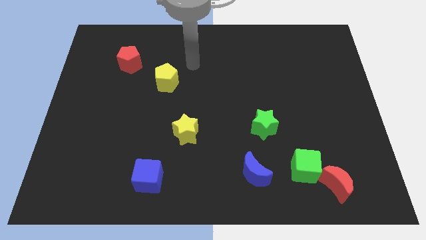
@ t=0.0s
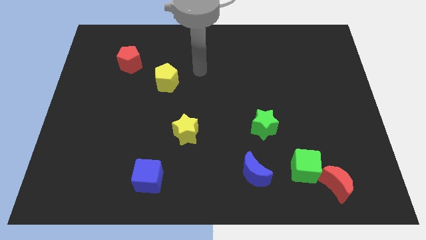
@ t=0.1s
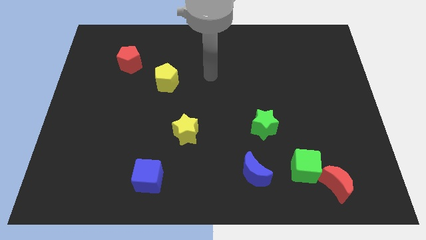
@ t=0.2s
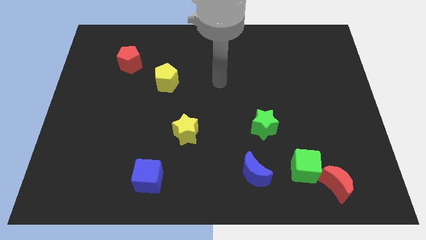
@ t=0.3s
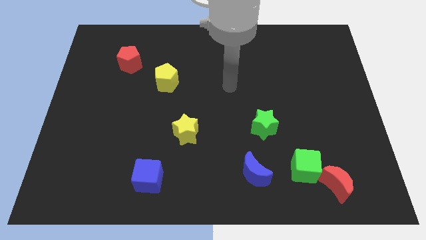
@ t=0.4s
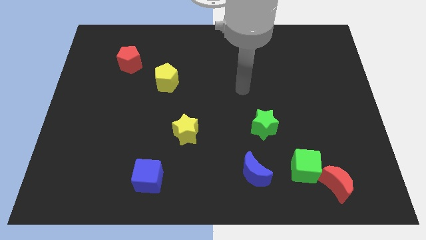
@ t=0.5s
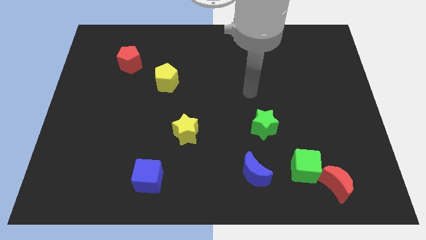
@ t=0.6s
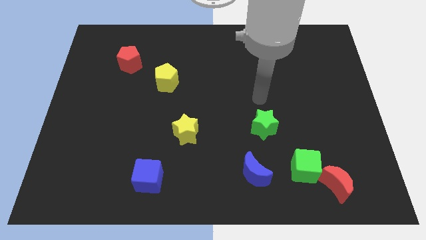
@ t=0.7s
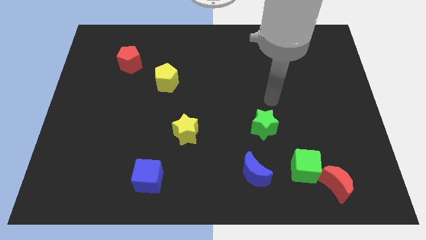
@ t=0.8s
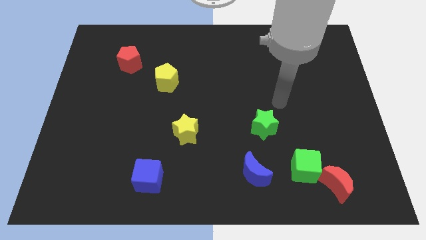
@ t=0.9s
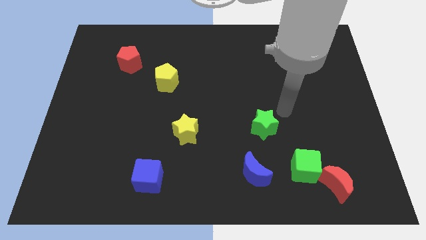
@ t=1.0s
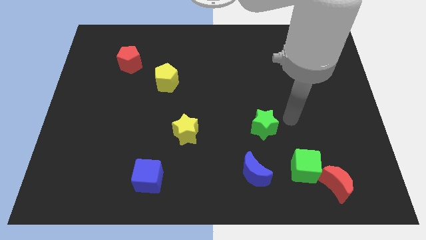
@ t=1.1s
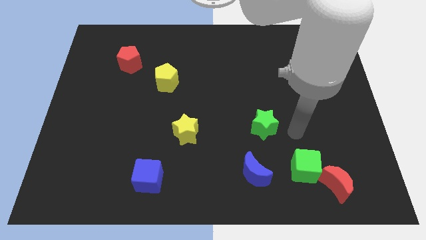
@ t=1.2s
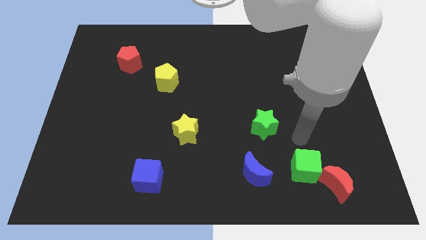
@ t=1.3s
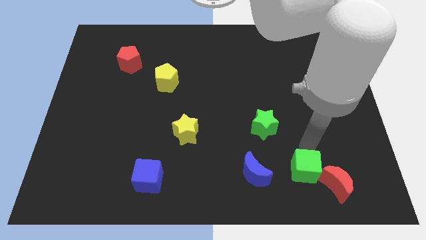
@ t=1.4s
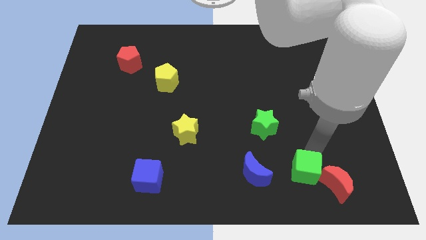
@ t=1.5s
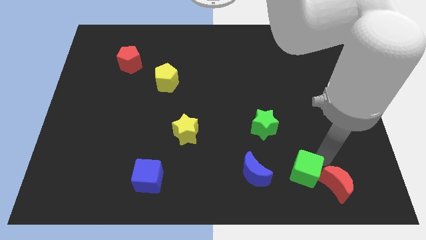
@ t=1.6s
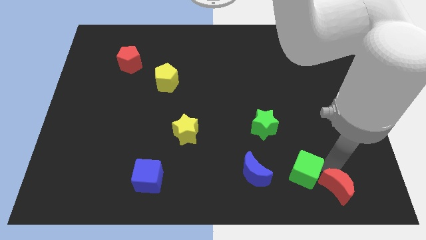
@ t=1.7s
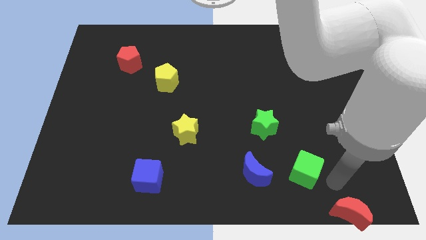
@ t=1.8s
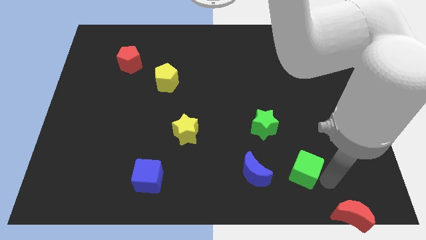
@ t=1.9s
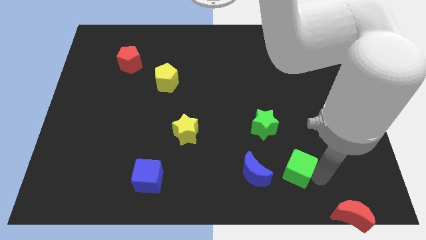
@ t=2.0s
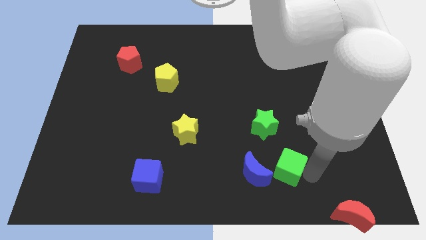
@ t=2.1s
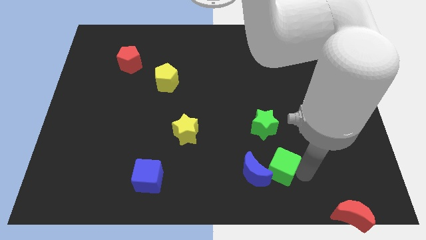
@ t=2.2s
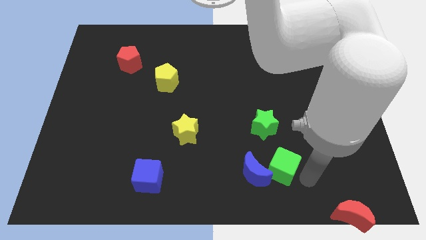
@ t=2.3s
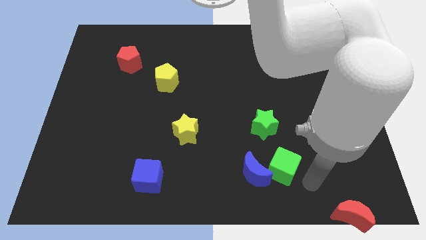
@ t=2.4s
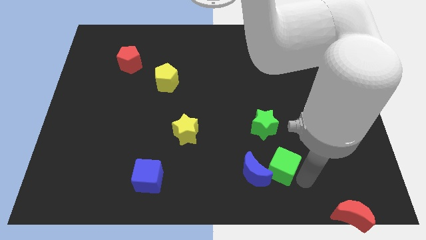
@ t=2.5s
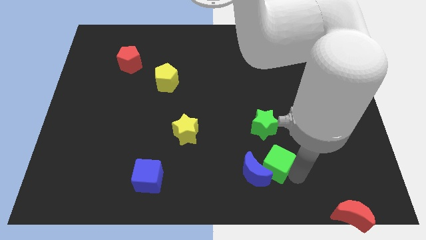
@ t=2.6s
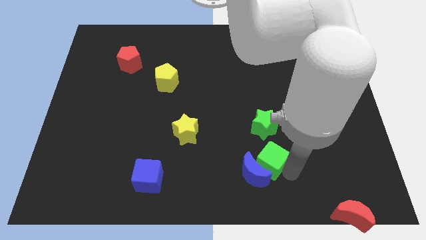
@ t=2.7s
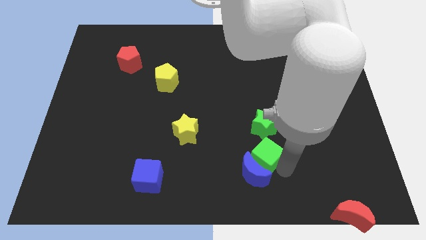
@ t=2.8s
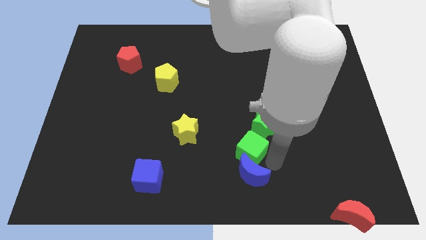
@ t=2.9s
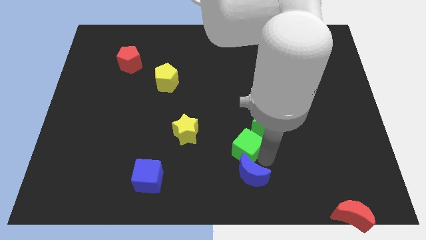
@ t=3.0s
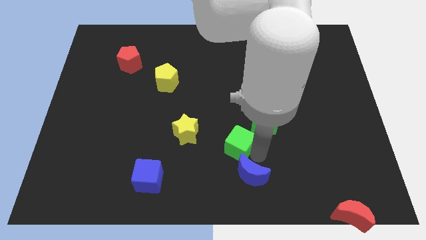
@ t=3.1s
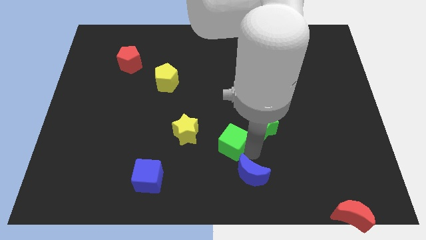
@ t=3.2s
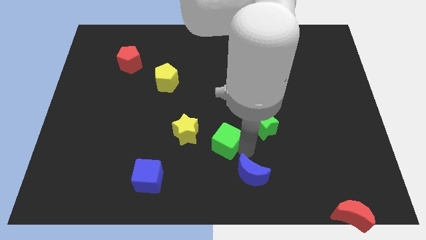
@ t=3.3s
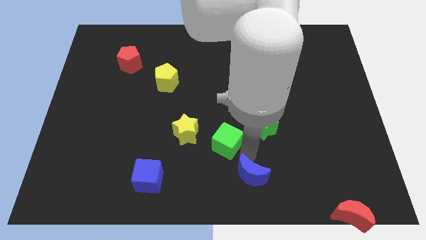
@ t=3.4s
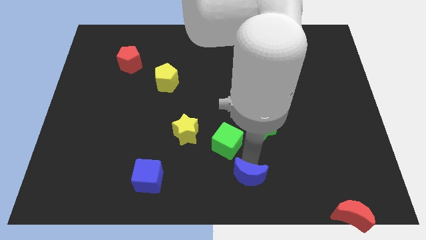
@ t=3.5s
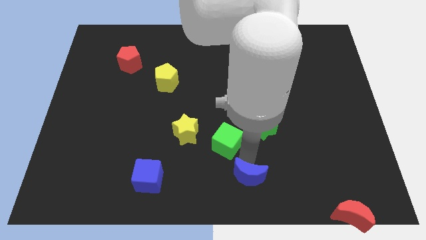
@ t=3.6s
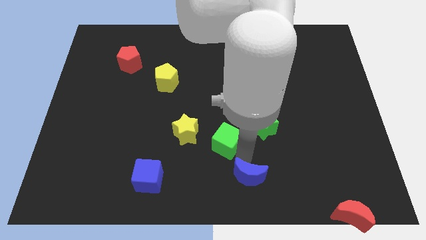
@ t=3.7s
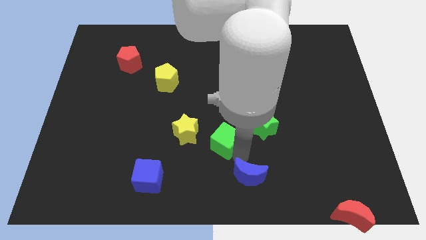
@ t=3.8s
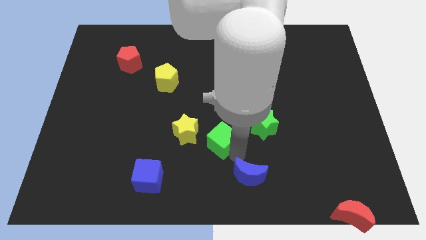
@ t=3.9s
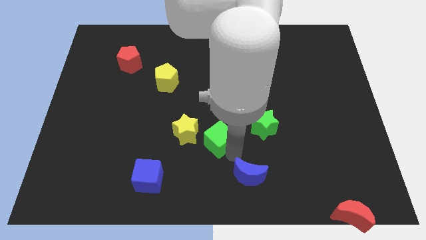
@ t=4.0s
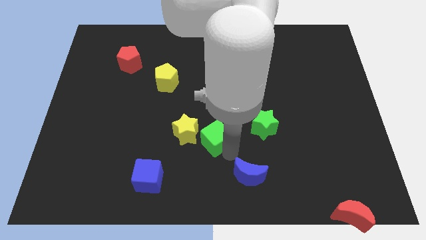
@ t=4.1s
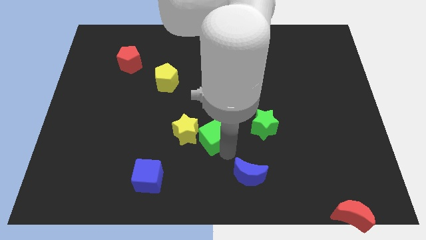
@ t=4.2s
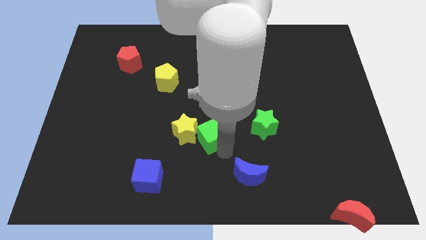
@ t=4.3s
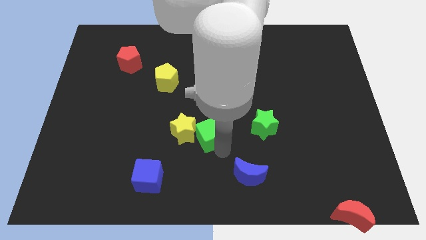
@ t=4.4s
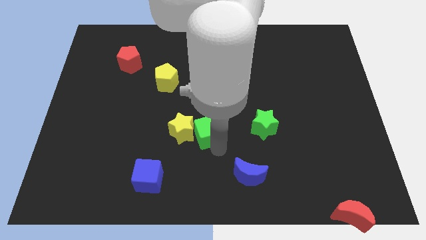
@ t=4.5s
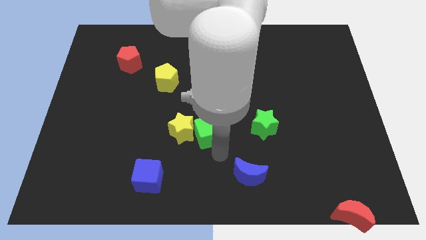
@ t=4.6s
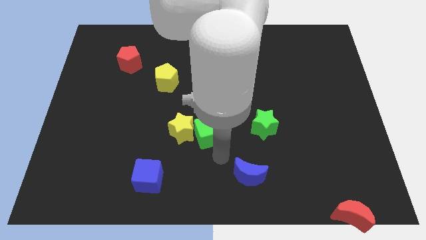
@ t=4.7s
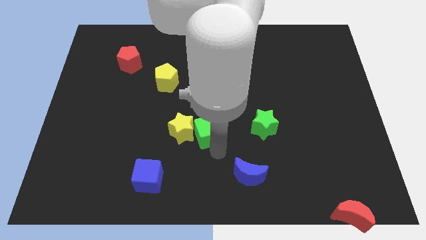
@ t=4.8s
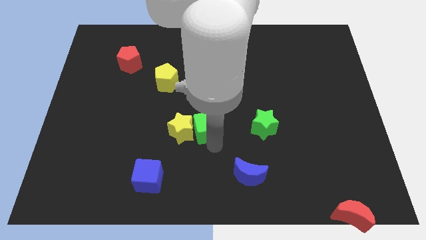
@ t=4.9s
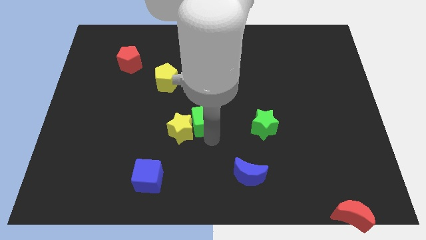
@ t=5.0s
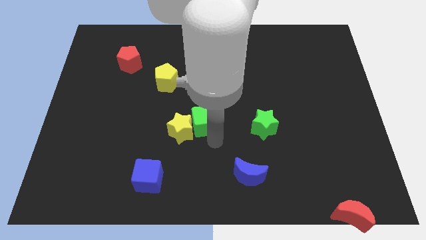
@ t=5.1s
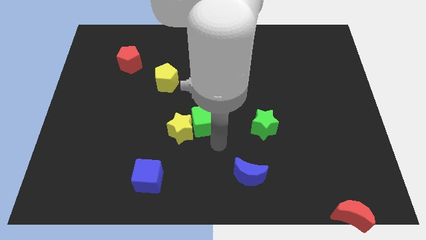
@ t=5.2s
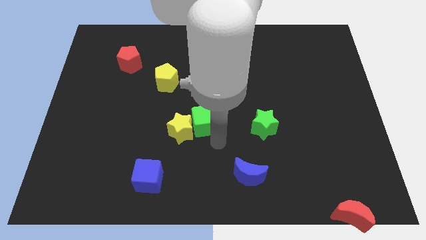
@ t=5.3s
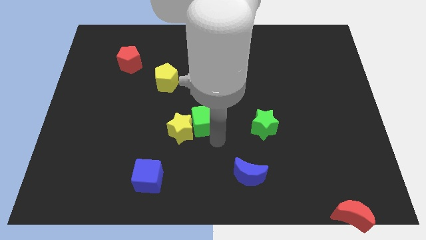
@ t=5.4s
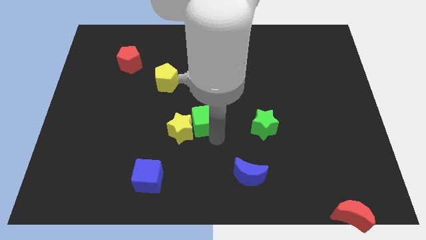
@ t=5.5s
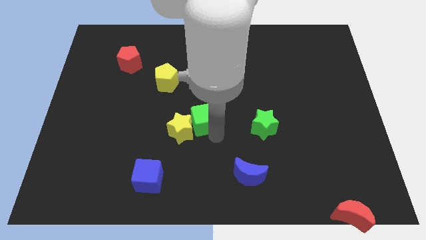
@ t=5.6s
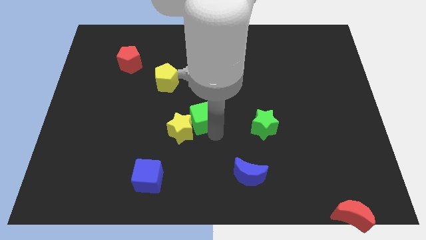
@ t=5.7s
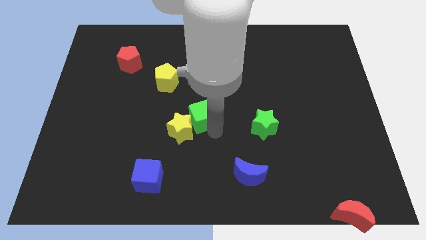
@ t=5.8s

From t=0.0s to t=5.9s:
slide the green cube to the top of the yellow star

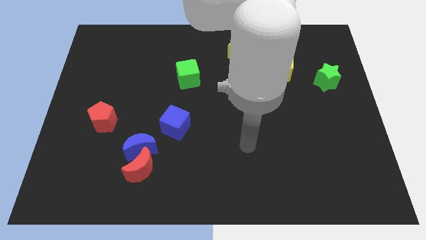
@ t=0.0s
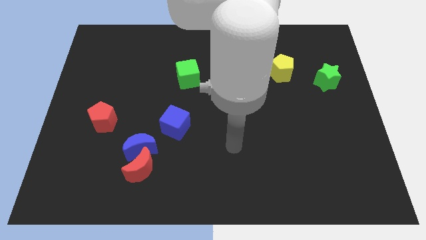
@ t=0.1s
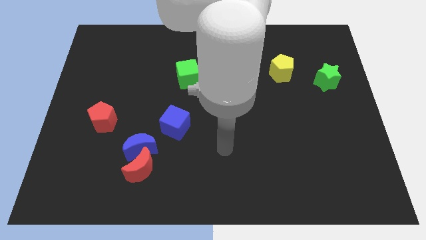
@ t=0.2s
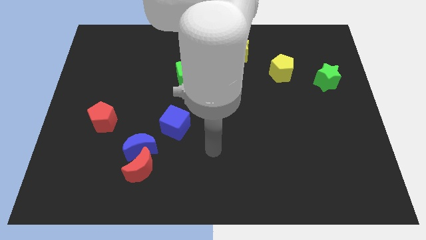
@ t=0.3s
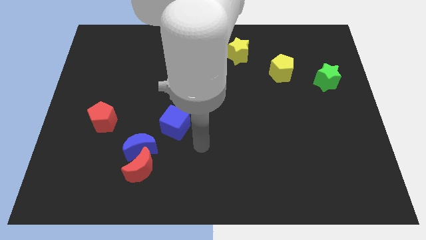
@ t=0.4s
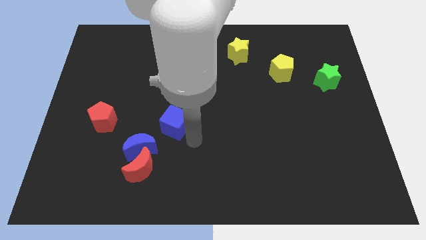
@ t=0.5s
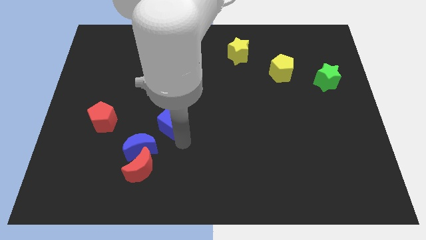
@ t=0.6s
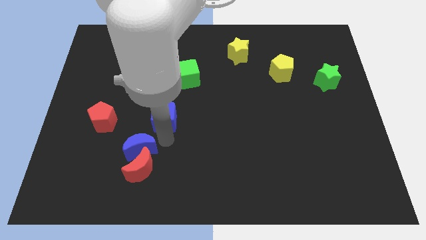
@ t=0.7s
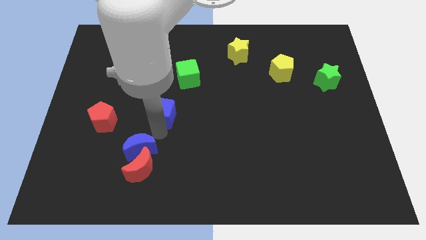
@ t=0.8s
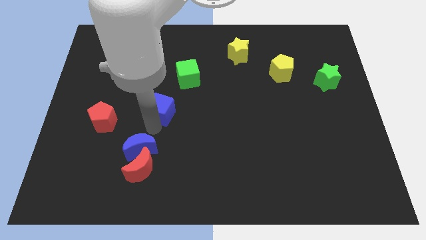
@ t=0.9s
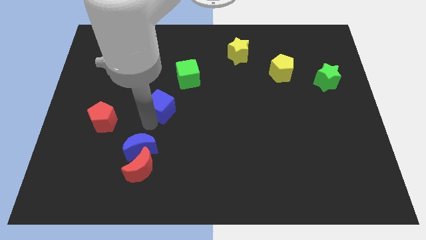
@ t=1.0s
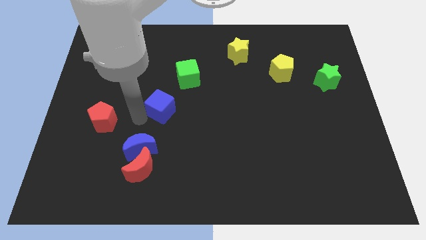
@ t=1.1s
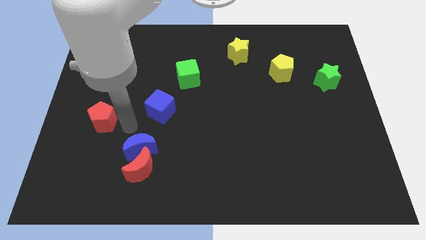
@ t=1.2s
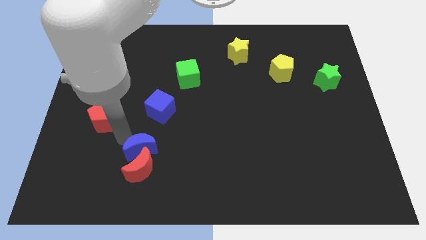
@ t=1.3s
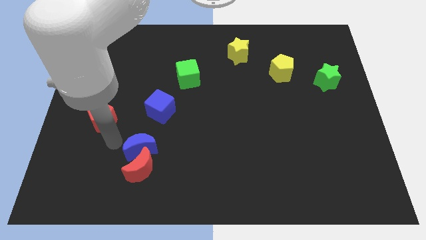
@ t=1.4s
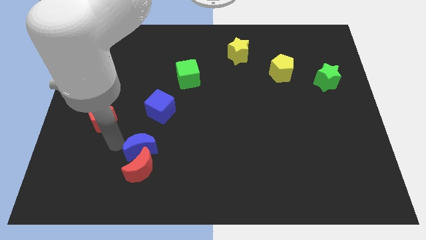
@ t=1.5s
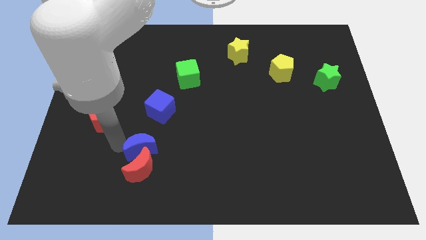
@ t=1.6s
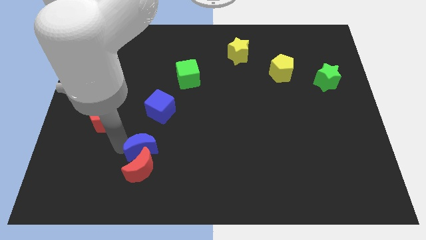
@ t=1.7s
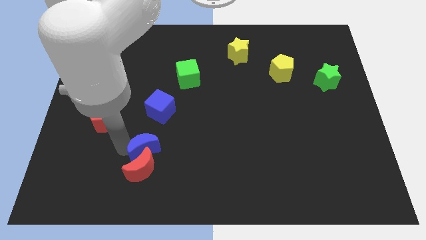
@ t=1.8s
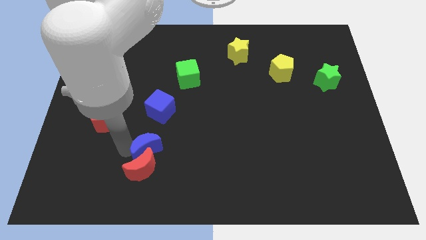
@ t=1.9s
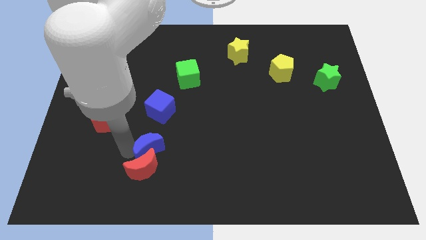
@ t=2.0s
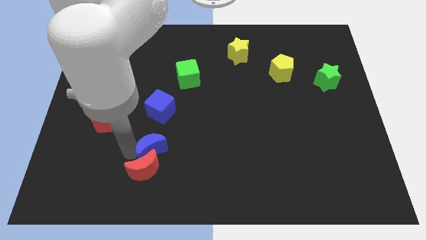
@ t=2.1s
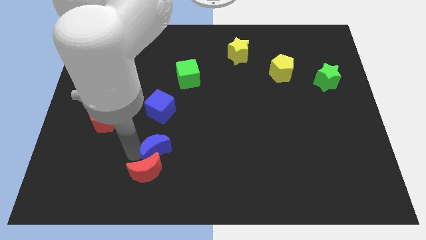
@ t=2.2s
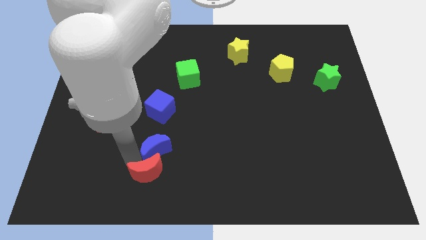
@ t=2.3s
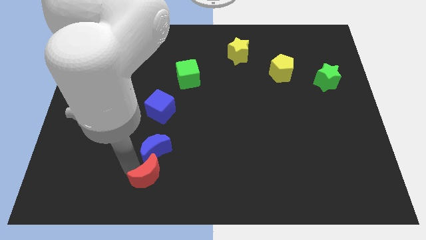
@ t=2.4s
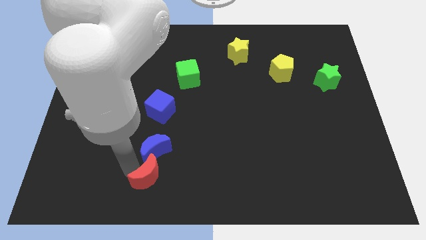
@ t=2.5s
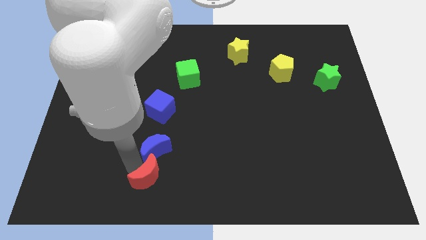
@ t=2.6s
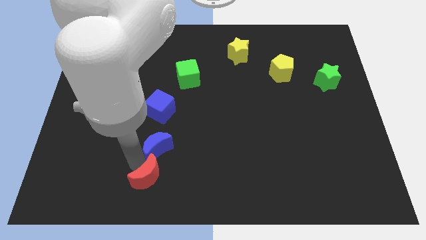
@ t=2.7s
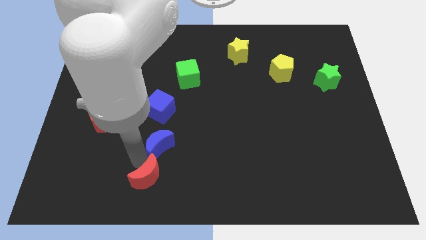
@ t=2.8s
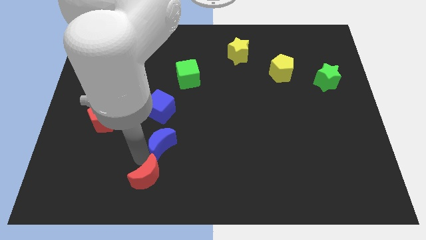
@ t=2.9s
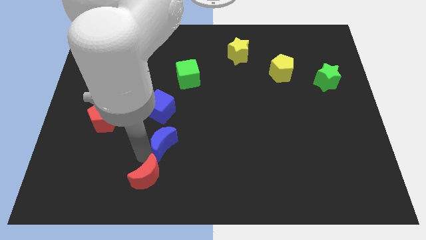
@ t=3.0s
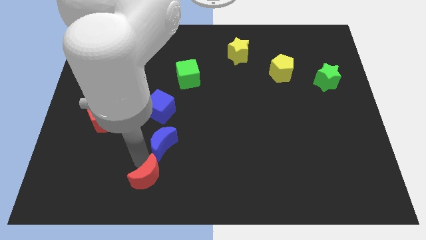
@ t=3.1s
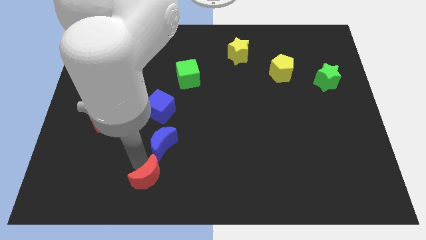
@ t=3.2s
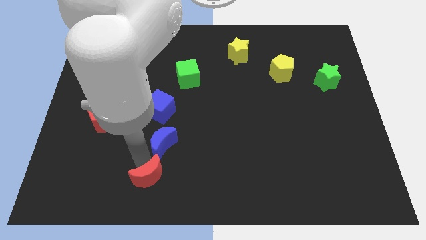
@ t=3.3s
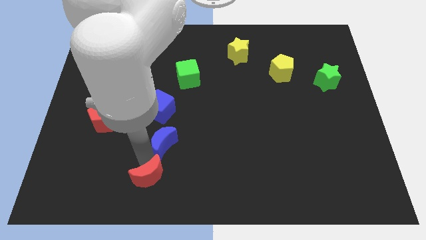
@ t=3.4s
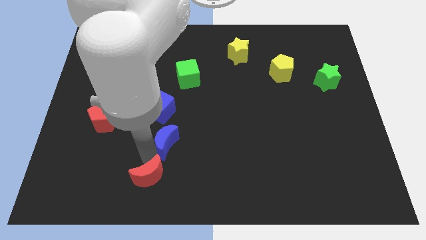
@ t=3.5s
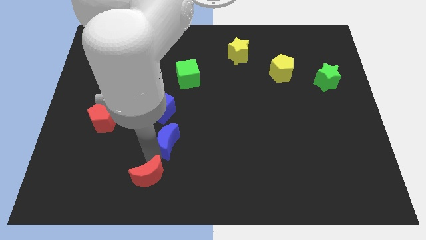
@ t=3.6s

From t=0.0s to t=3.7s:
put the blue moon to the bottom right of the blue cube
